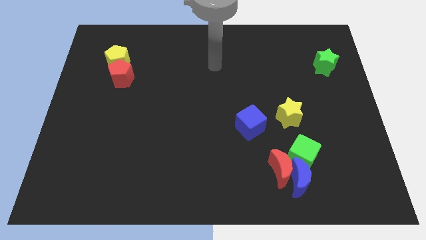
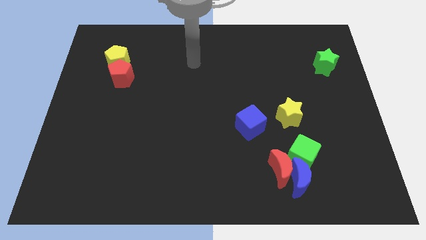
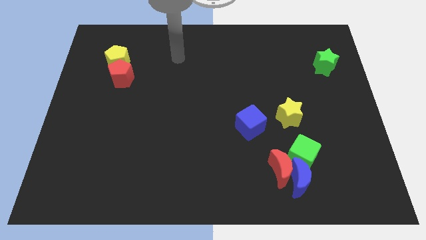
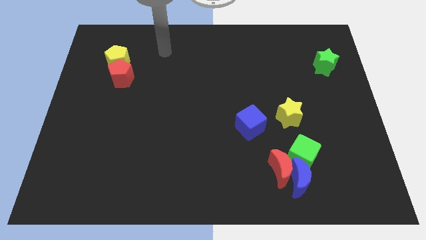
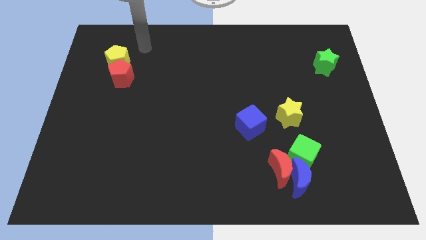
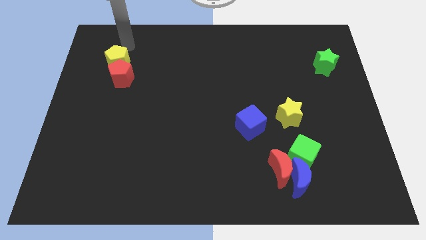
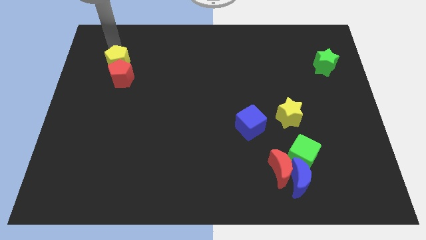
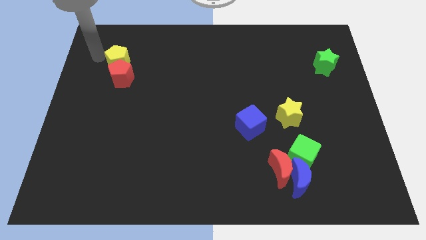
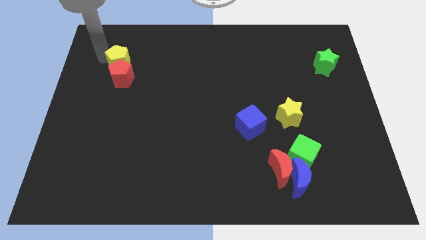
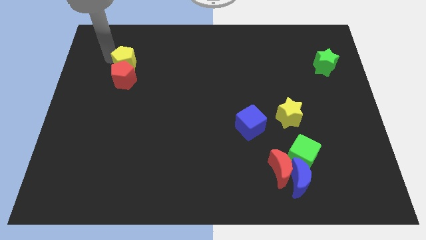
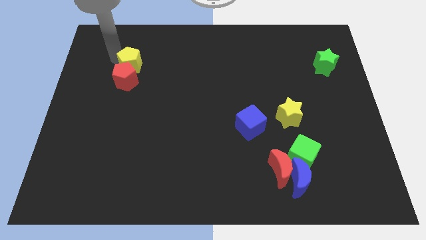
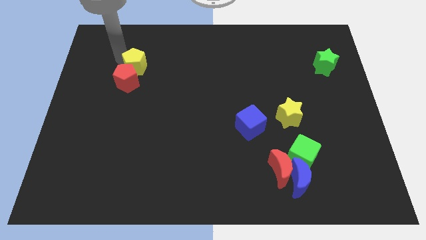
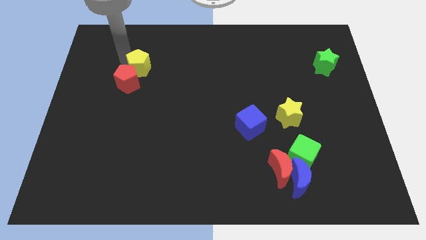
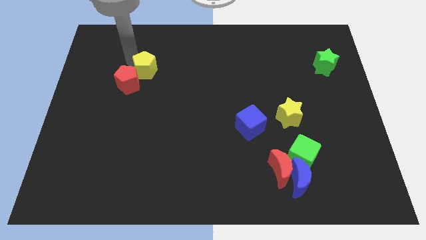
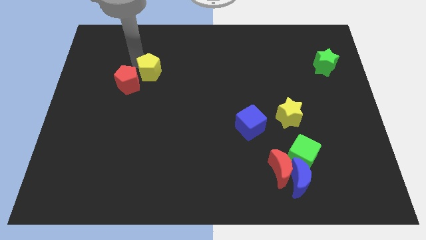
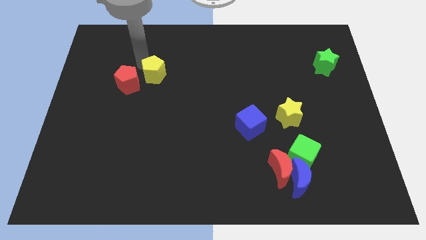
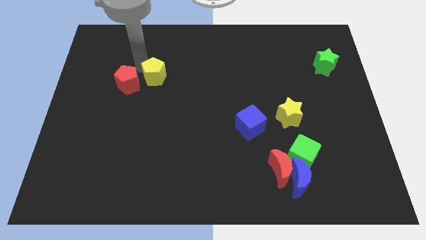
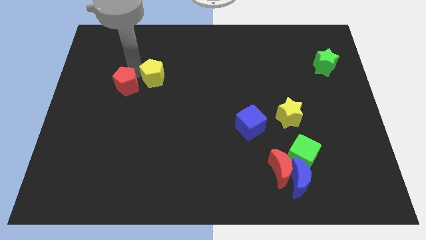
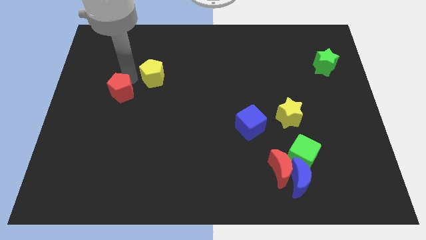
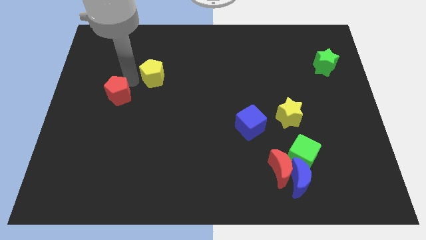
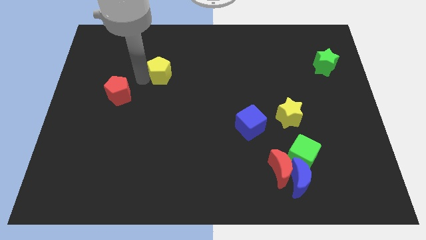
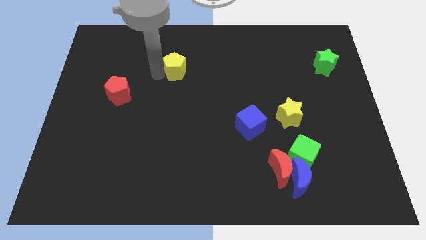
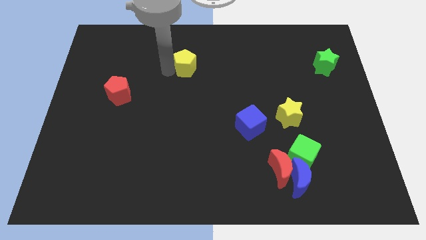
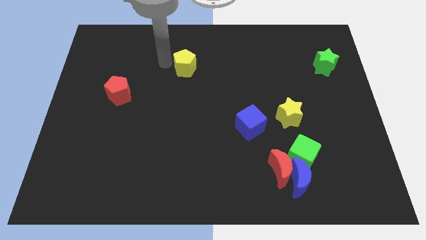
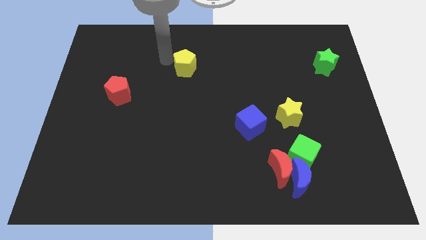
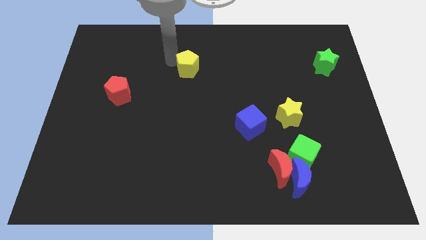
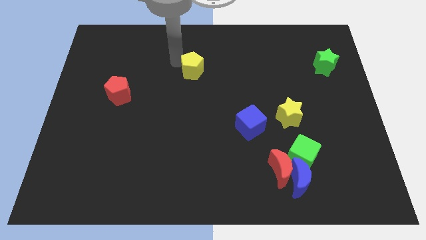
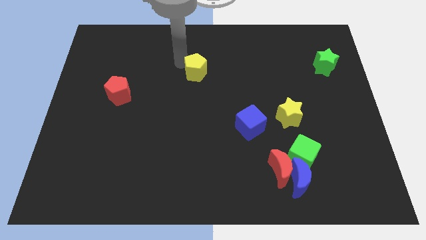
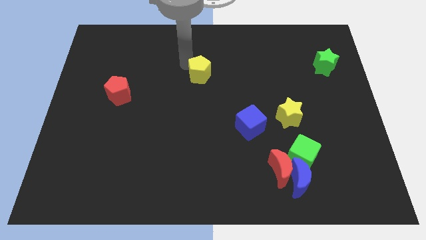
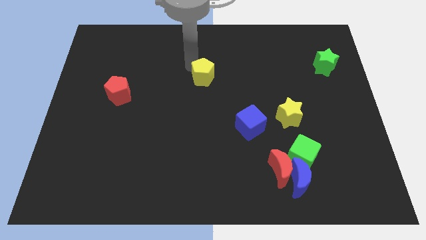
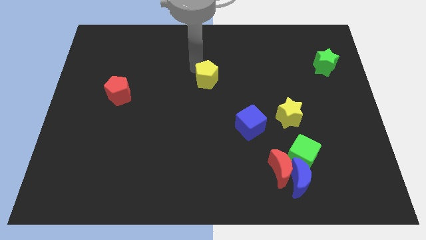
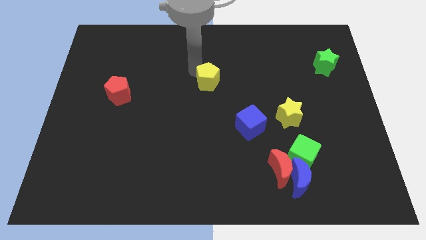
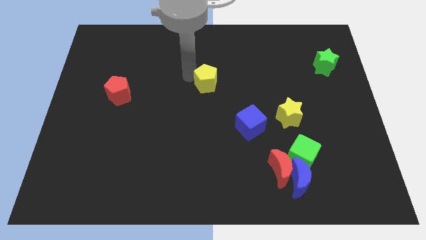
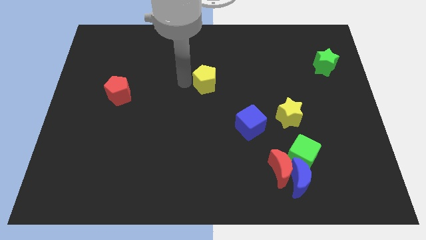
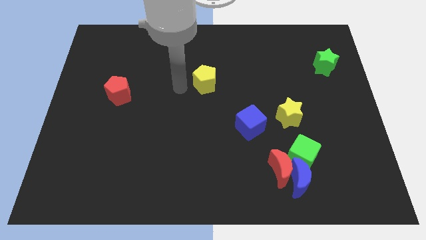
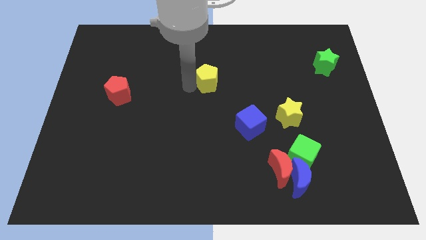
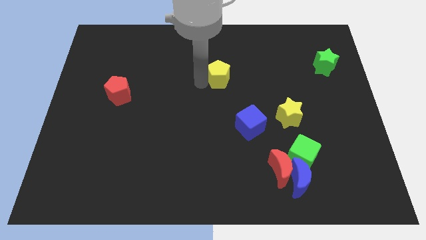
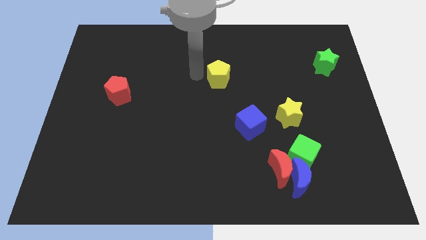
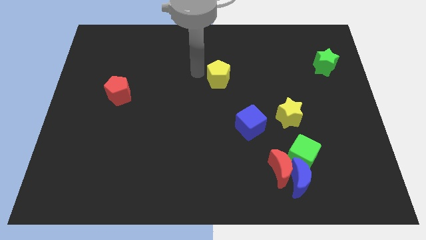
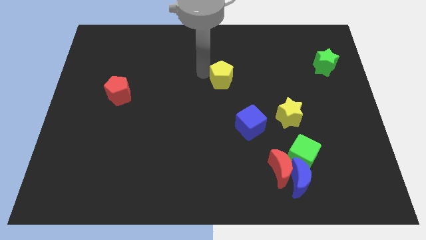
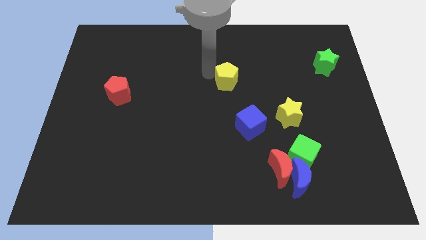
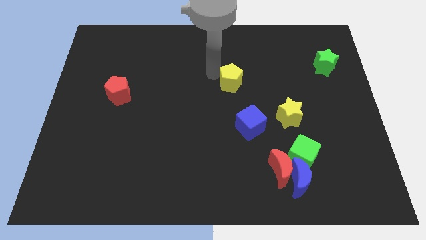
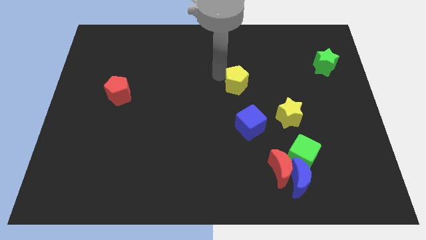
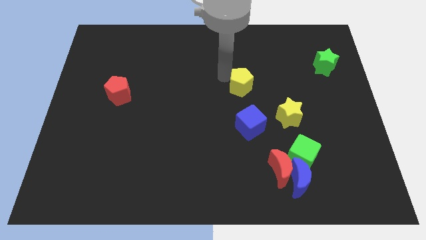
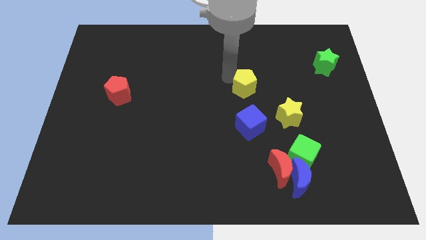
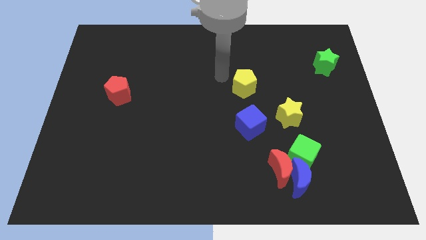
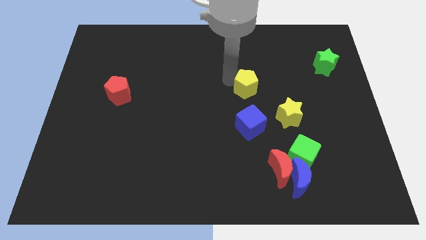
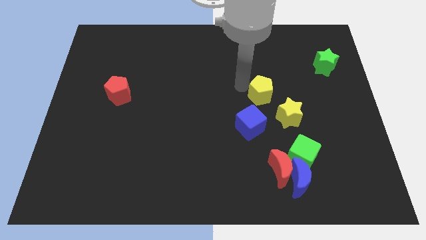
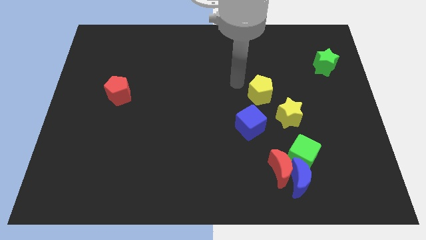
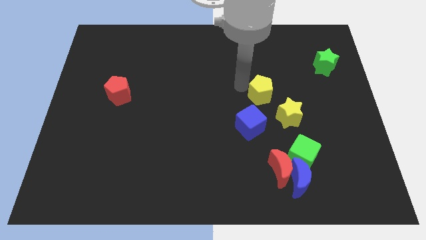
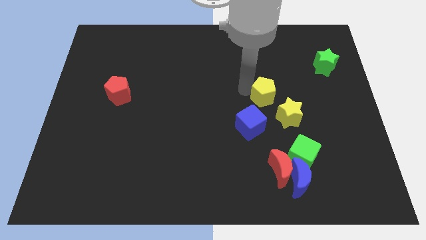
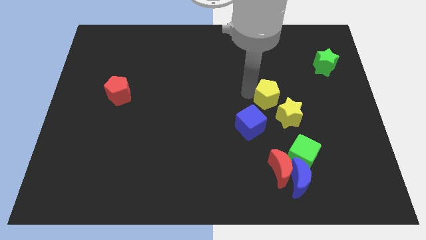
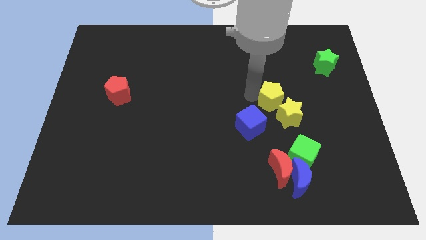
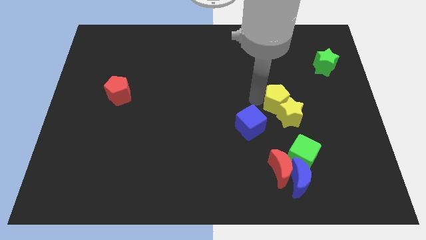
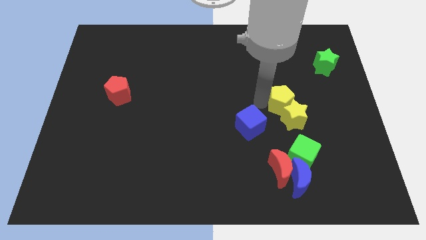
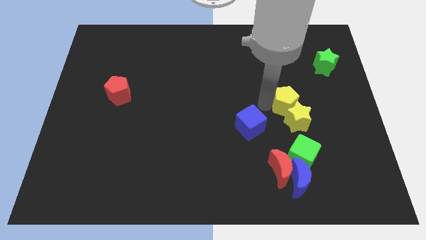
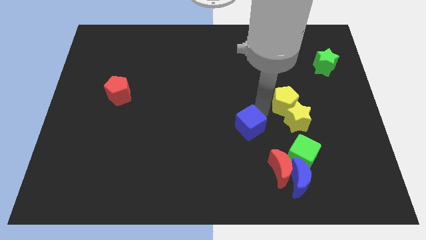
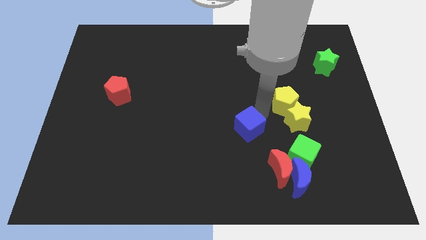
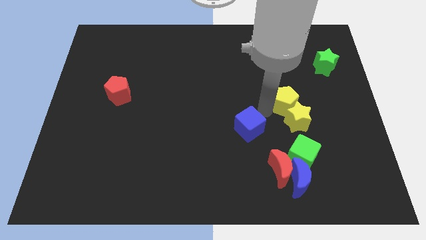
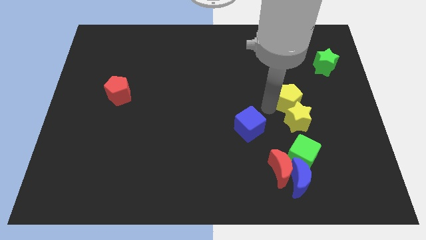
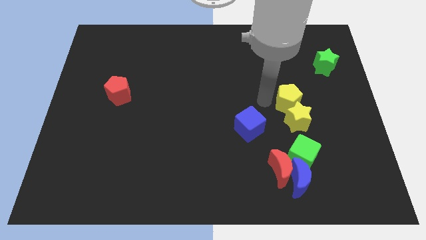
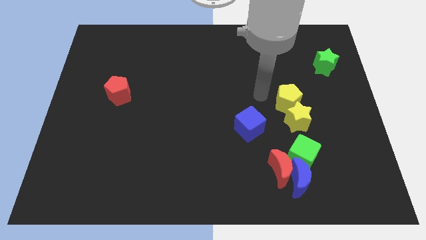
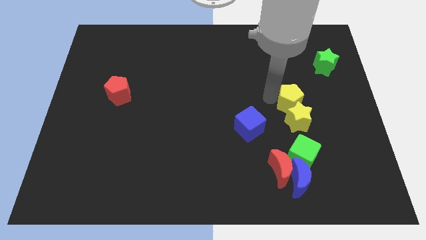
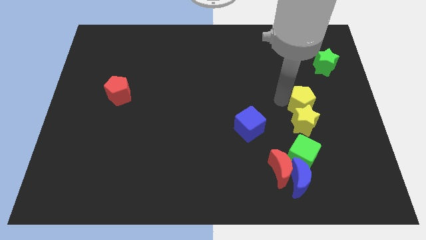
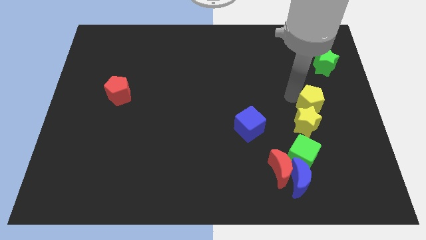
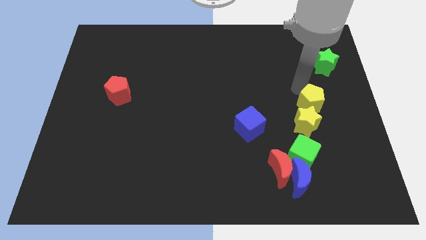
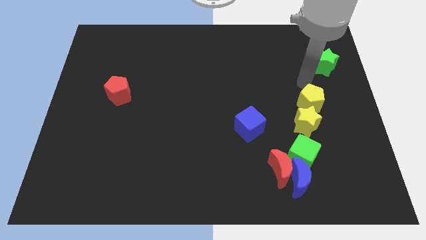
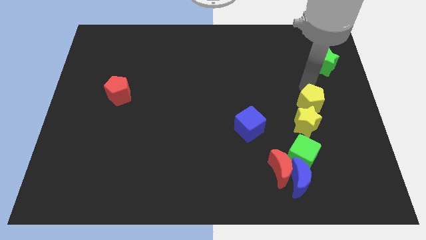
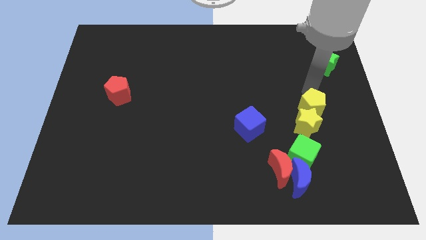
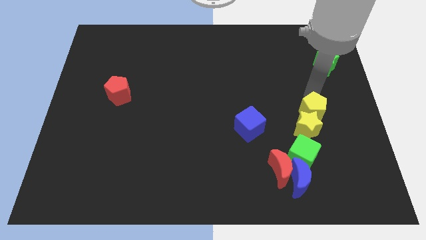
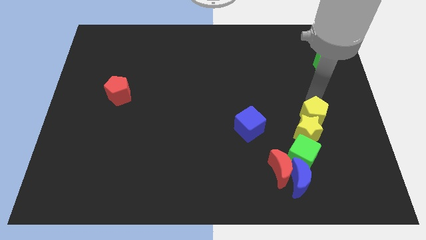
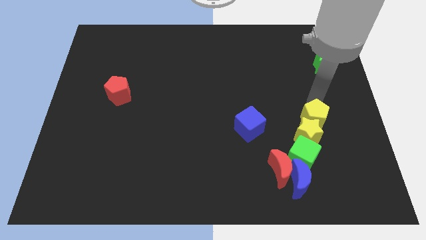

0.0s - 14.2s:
push the yellow pentagon to the top right of the green cube
